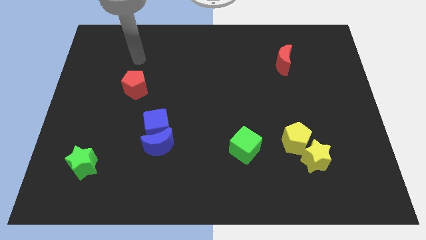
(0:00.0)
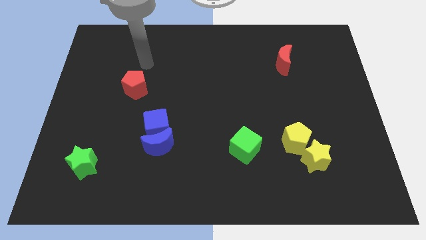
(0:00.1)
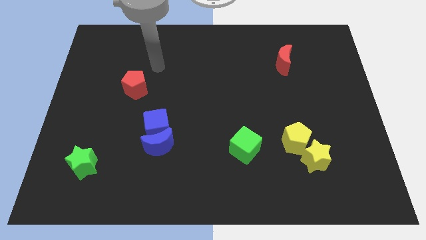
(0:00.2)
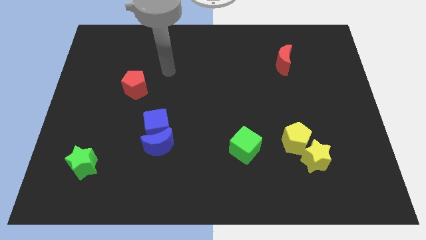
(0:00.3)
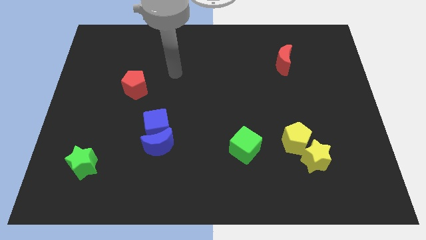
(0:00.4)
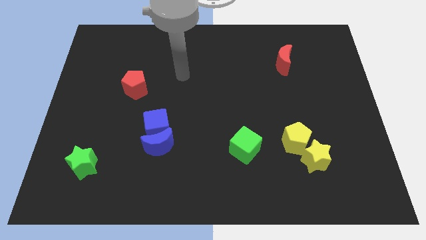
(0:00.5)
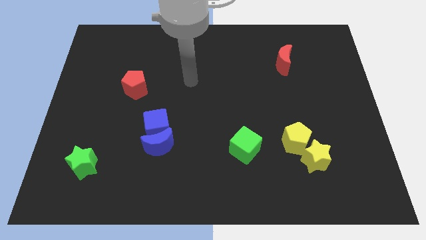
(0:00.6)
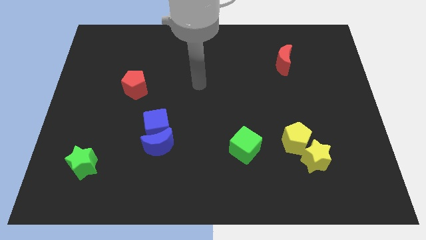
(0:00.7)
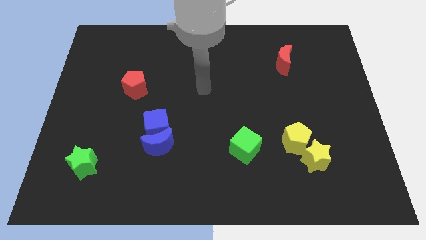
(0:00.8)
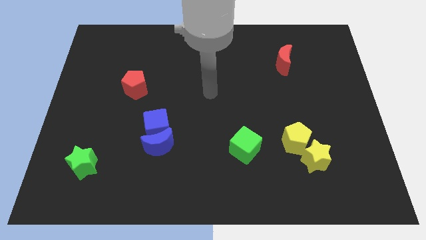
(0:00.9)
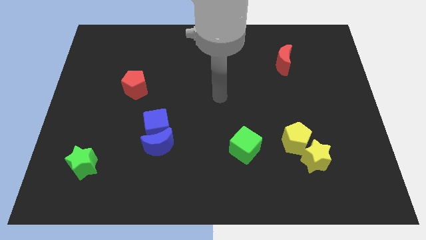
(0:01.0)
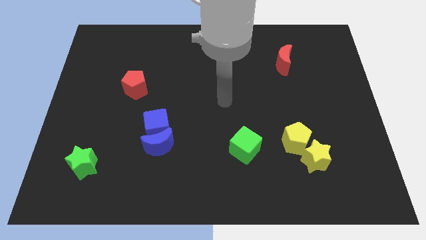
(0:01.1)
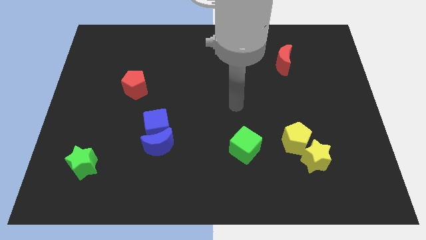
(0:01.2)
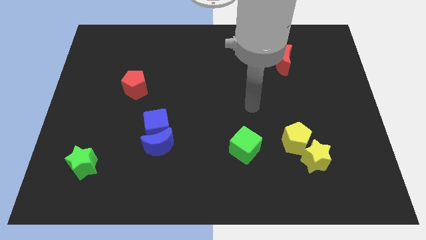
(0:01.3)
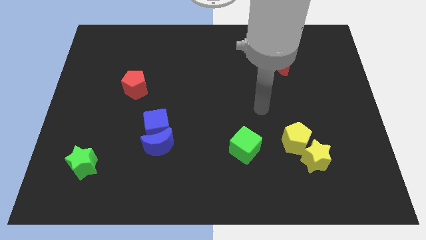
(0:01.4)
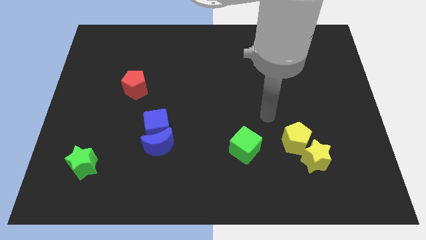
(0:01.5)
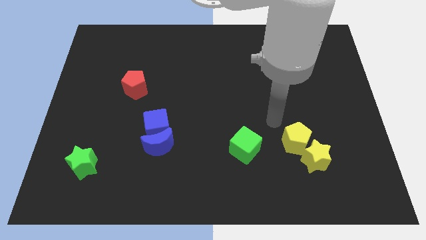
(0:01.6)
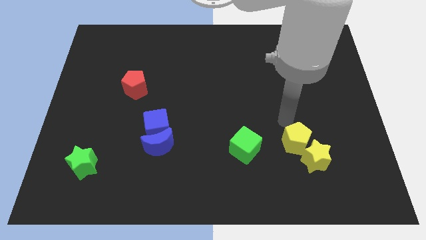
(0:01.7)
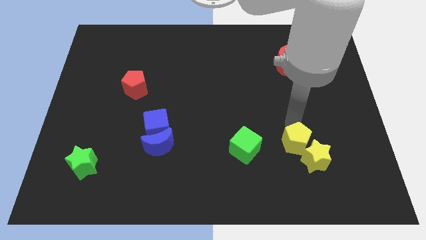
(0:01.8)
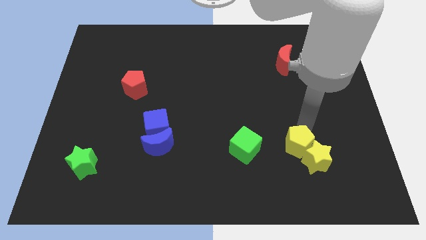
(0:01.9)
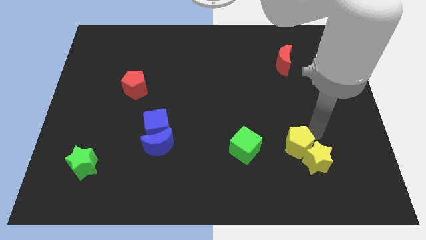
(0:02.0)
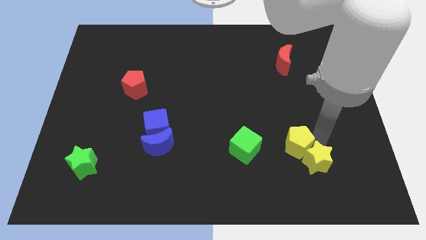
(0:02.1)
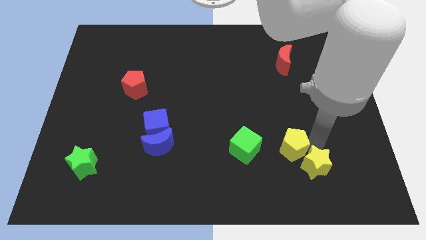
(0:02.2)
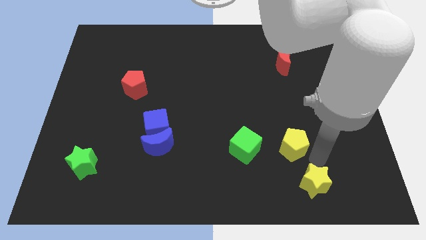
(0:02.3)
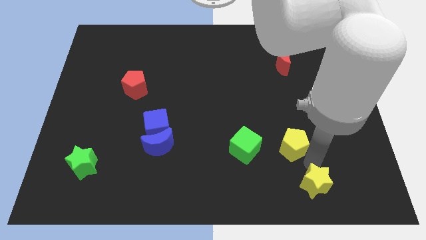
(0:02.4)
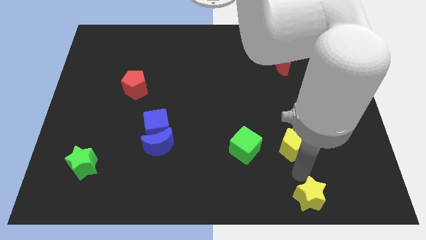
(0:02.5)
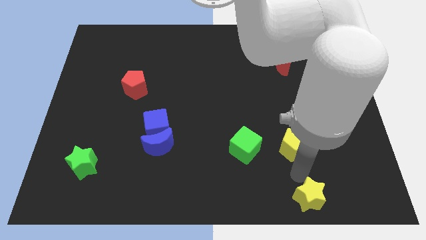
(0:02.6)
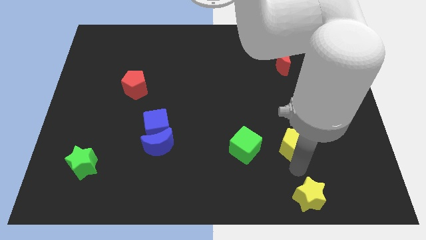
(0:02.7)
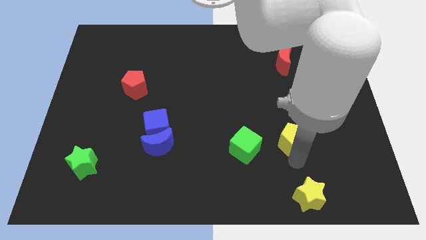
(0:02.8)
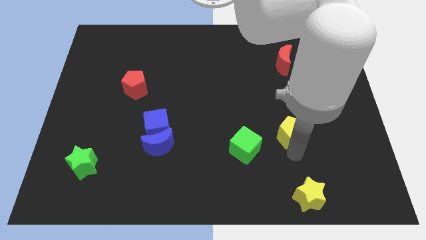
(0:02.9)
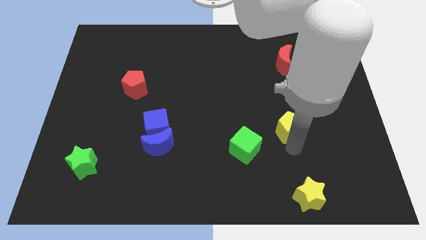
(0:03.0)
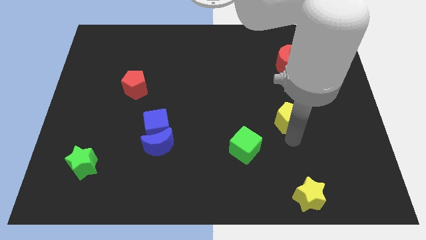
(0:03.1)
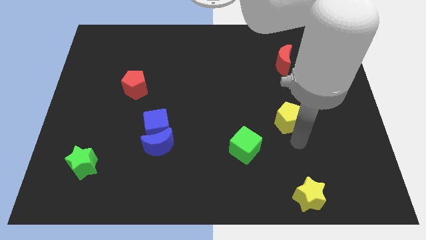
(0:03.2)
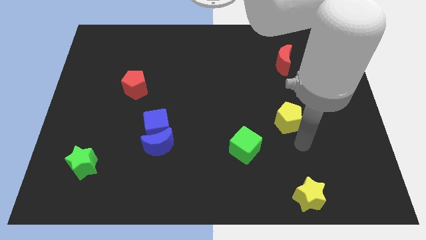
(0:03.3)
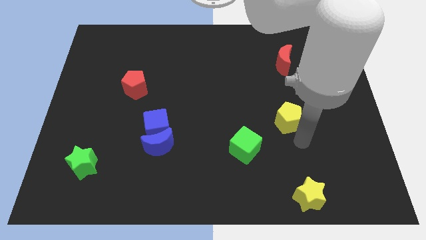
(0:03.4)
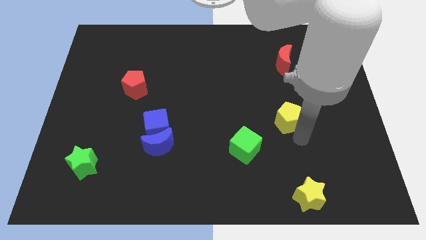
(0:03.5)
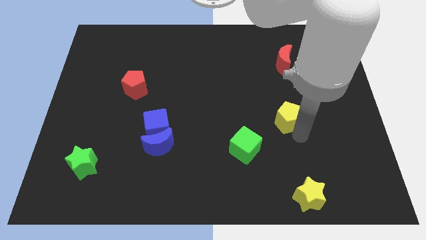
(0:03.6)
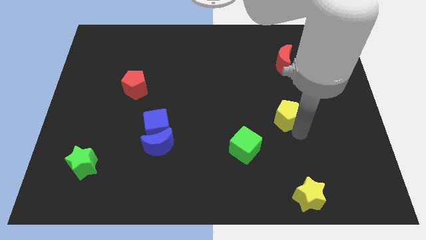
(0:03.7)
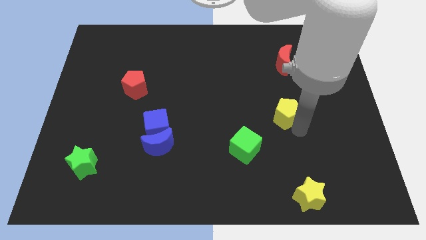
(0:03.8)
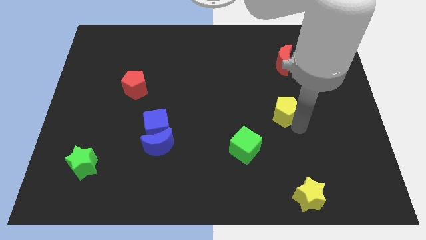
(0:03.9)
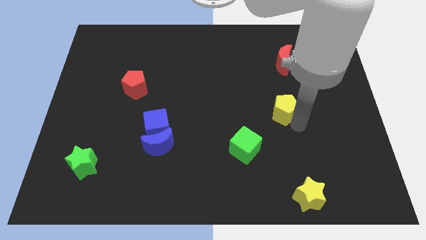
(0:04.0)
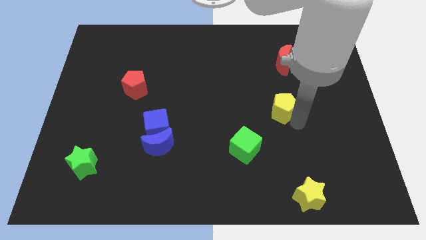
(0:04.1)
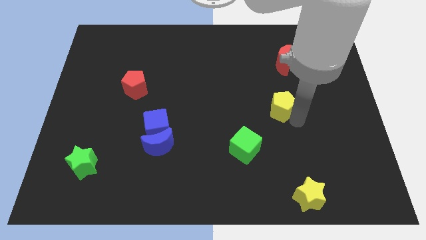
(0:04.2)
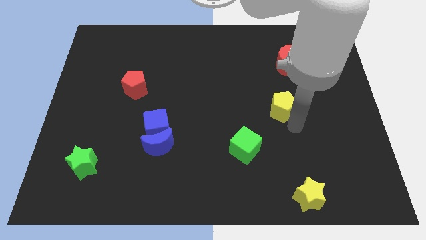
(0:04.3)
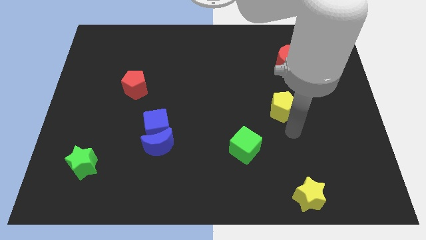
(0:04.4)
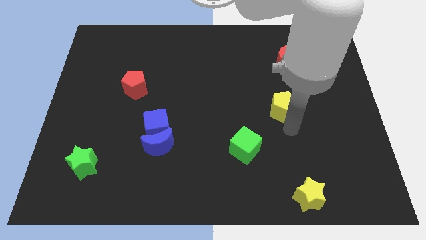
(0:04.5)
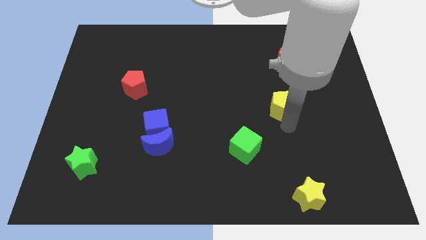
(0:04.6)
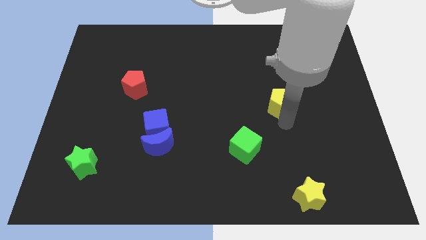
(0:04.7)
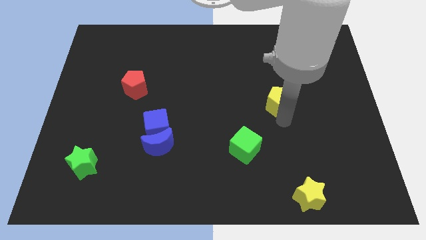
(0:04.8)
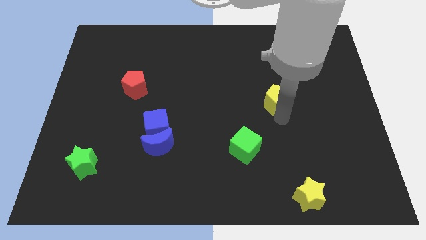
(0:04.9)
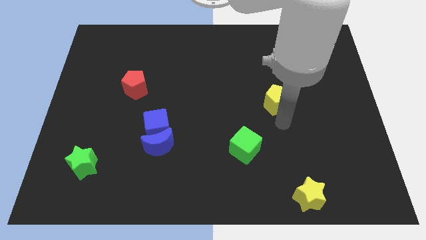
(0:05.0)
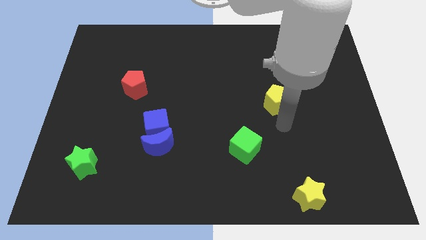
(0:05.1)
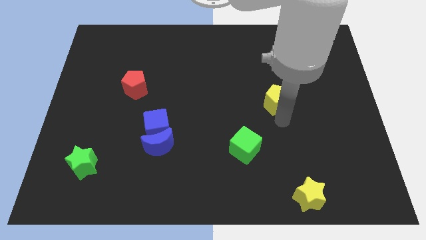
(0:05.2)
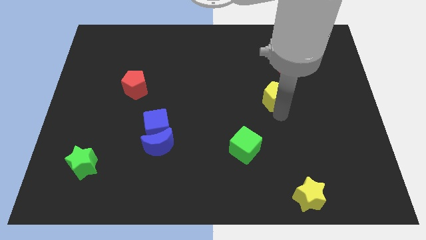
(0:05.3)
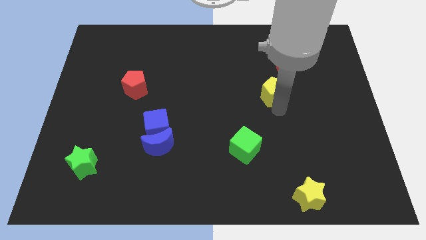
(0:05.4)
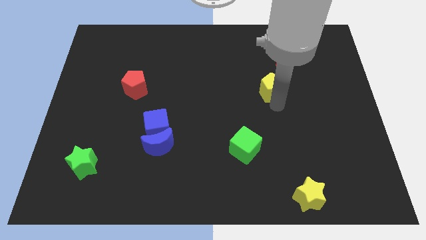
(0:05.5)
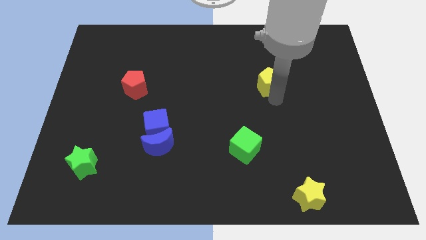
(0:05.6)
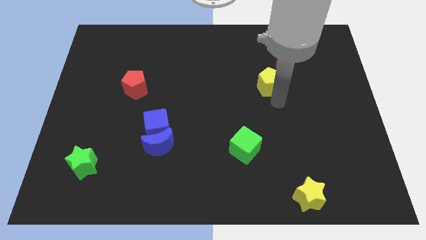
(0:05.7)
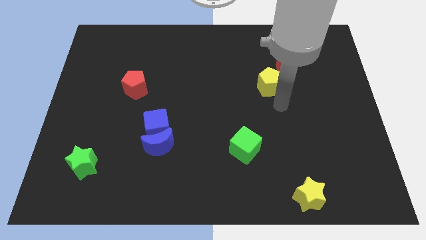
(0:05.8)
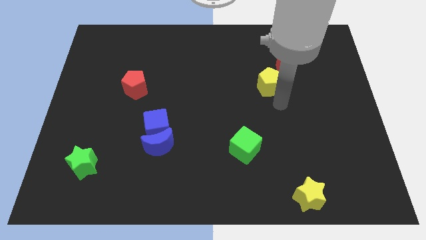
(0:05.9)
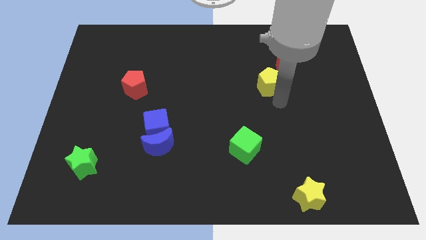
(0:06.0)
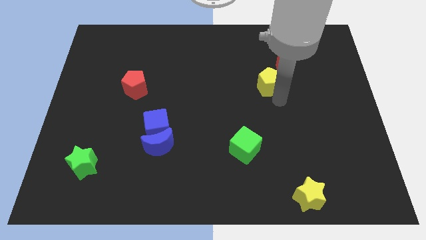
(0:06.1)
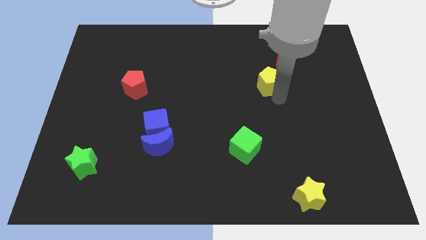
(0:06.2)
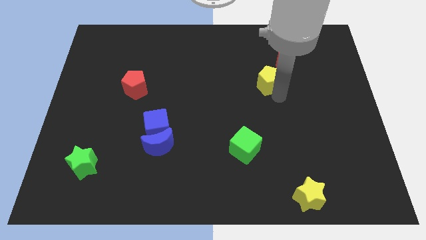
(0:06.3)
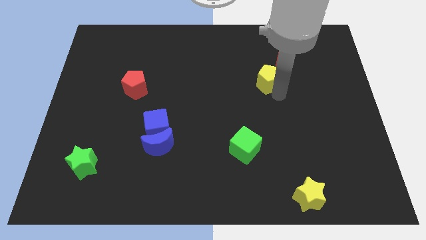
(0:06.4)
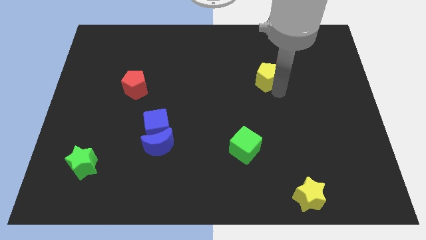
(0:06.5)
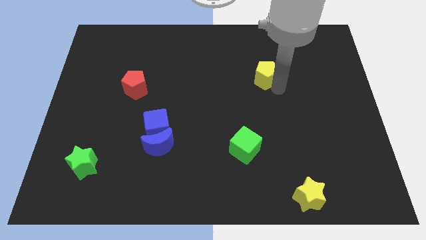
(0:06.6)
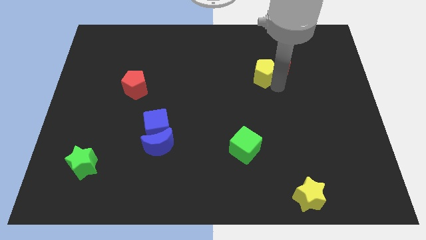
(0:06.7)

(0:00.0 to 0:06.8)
move the yellow pentagon just left of the red moon

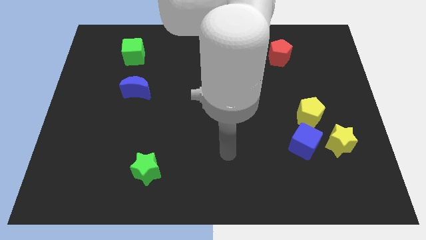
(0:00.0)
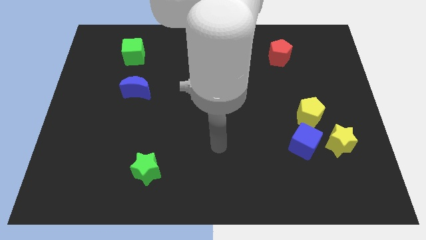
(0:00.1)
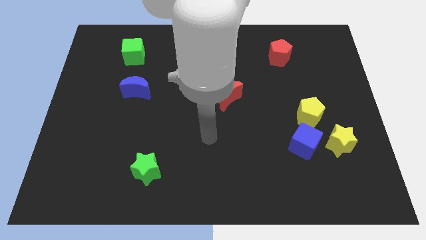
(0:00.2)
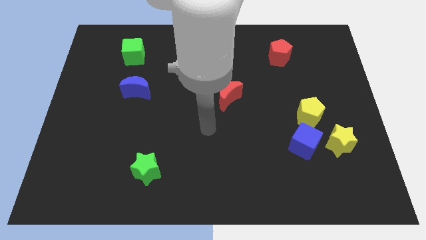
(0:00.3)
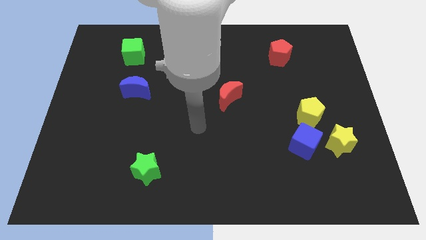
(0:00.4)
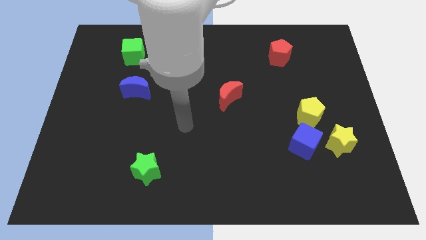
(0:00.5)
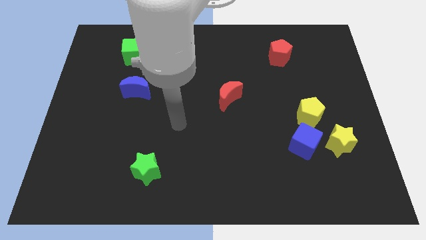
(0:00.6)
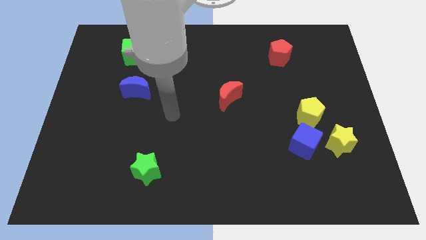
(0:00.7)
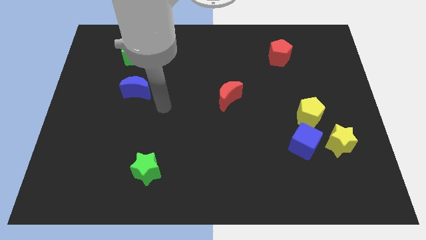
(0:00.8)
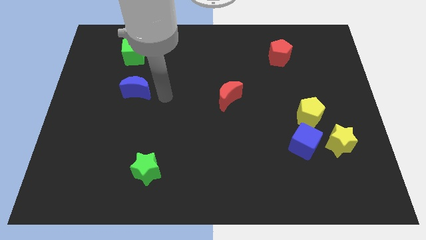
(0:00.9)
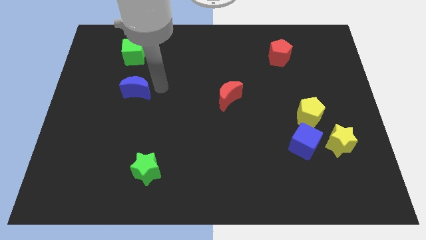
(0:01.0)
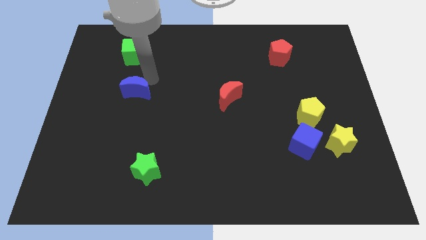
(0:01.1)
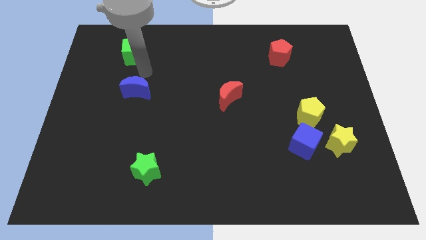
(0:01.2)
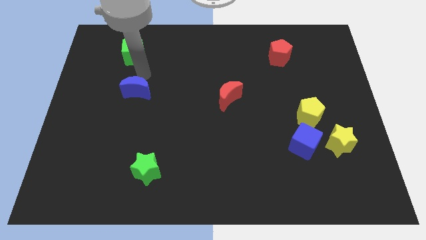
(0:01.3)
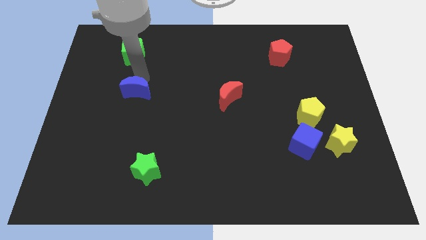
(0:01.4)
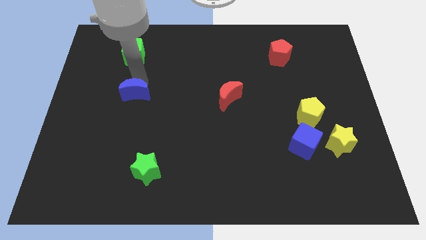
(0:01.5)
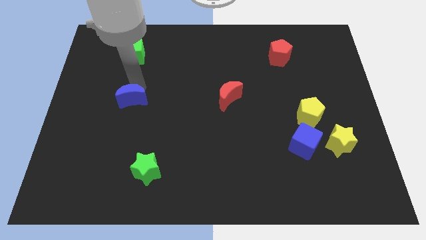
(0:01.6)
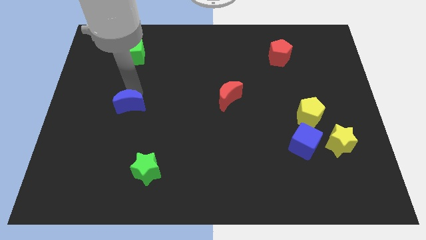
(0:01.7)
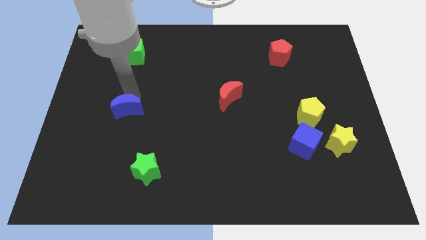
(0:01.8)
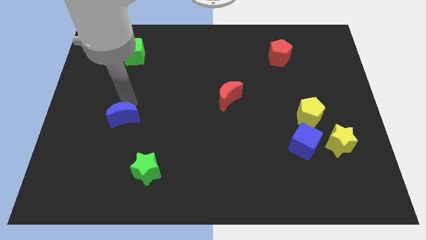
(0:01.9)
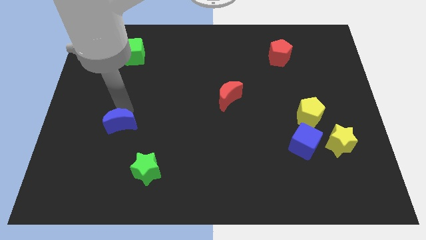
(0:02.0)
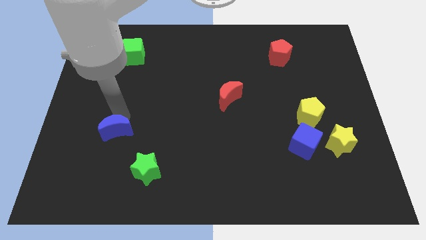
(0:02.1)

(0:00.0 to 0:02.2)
move the blue moon to the top left of the green star
